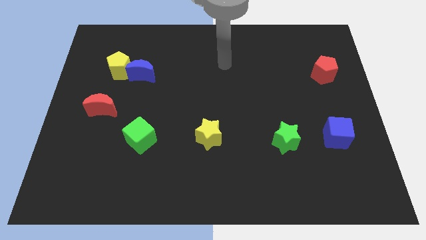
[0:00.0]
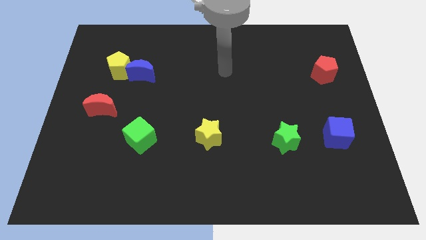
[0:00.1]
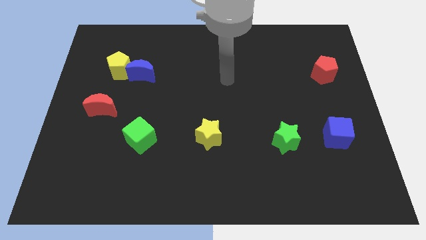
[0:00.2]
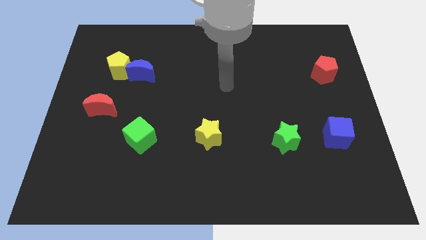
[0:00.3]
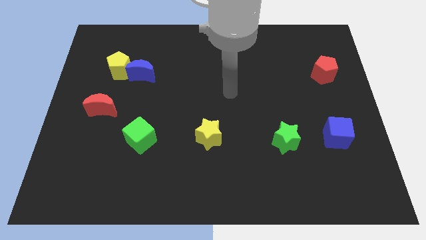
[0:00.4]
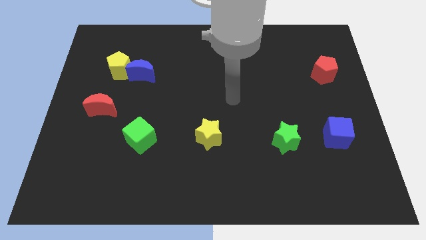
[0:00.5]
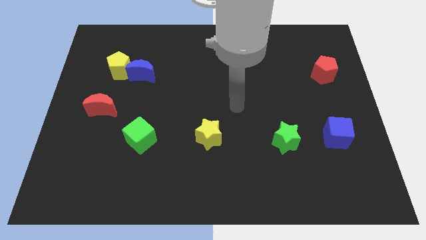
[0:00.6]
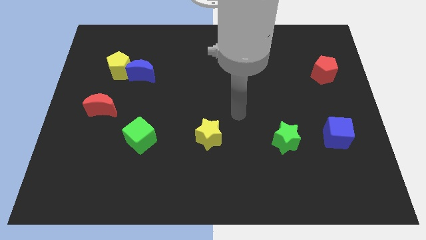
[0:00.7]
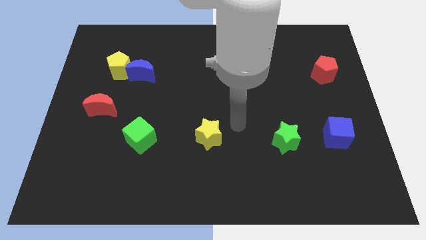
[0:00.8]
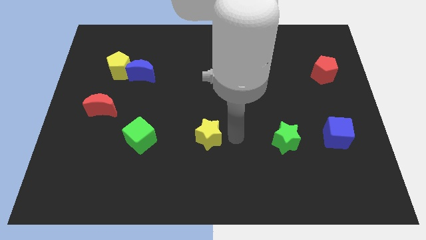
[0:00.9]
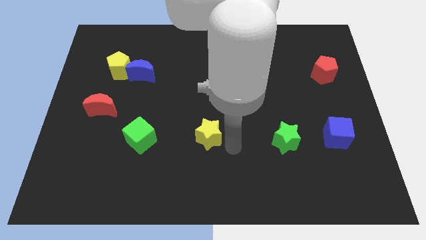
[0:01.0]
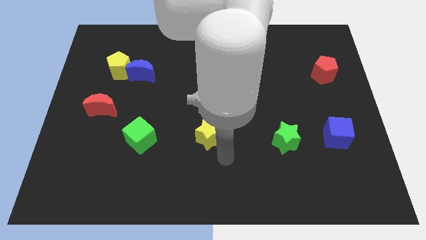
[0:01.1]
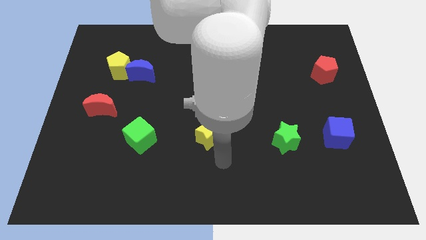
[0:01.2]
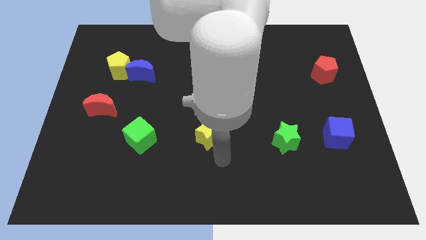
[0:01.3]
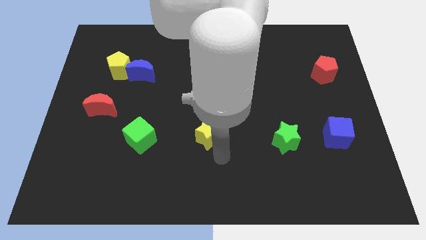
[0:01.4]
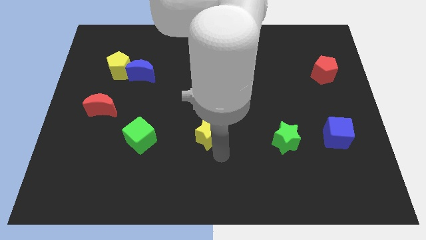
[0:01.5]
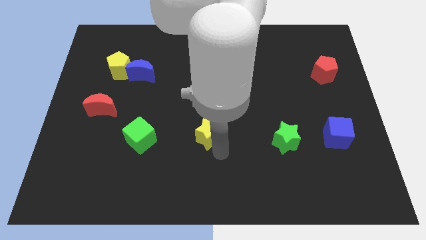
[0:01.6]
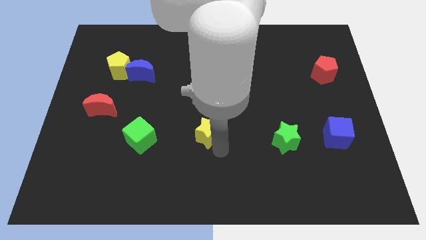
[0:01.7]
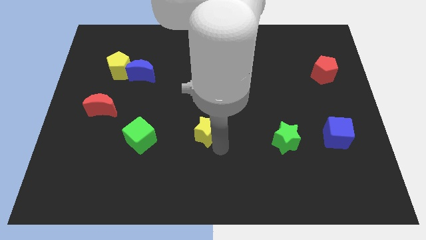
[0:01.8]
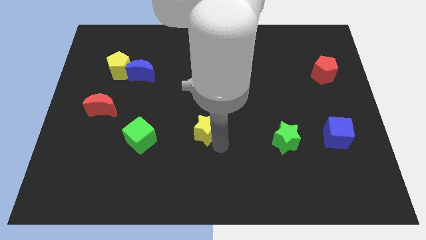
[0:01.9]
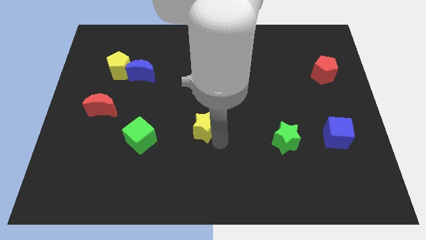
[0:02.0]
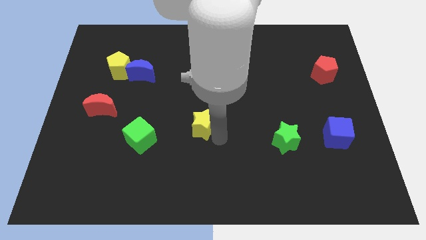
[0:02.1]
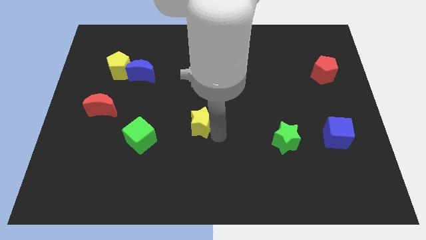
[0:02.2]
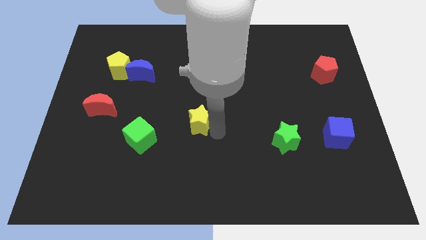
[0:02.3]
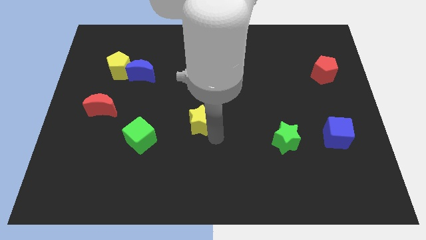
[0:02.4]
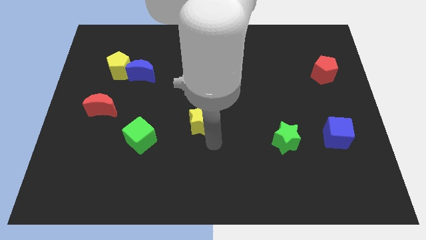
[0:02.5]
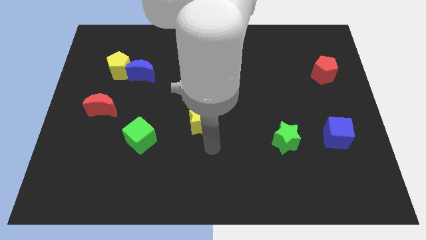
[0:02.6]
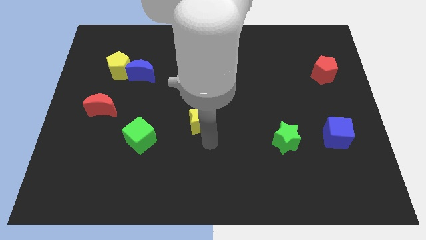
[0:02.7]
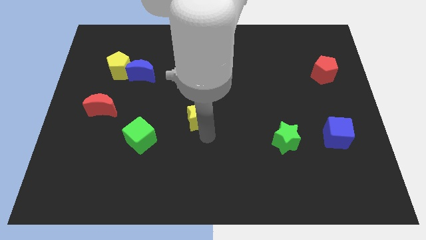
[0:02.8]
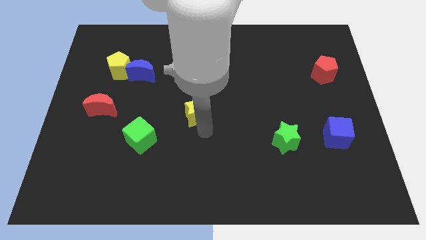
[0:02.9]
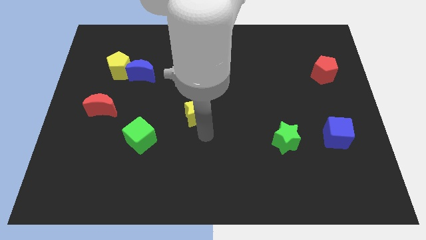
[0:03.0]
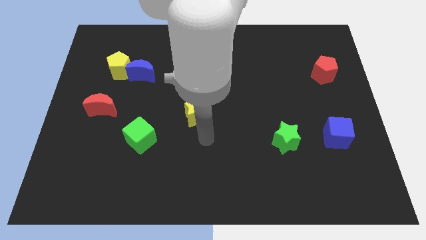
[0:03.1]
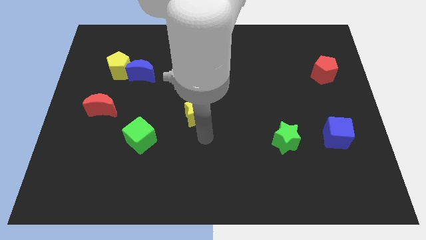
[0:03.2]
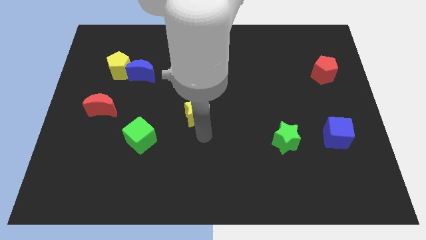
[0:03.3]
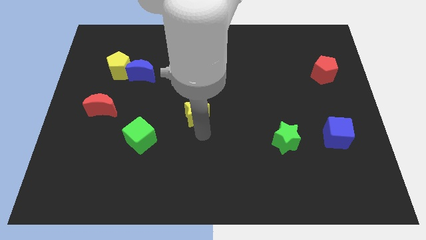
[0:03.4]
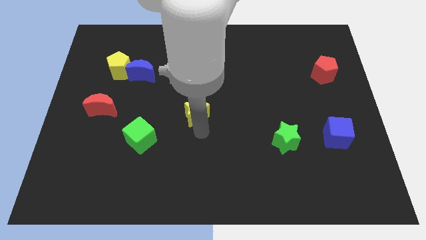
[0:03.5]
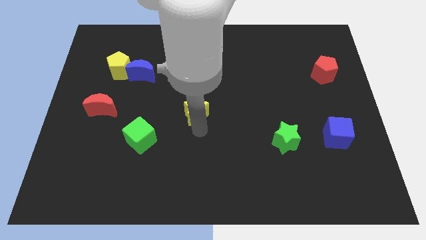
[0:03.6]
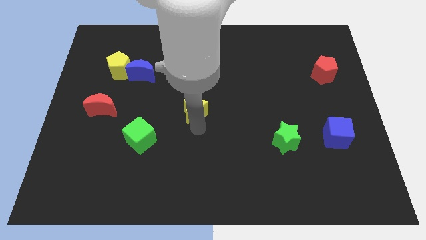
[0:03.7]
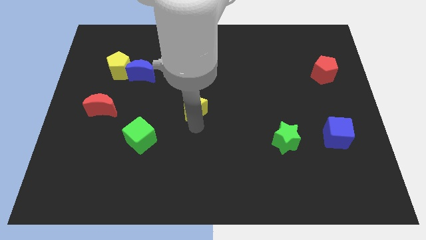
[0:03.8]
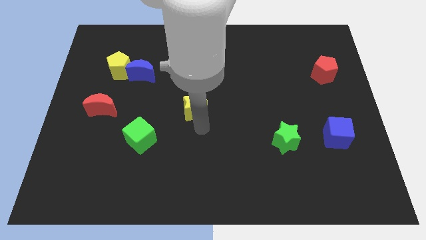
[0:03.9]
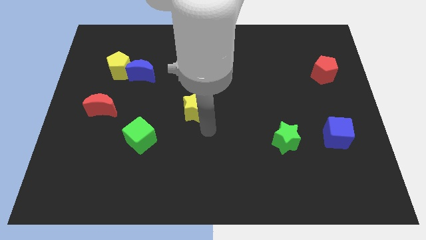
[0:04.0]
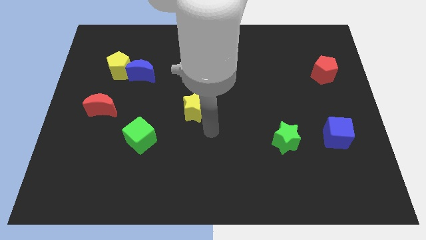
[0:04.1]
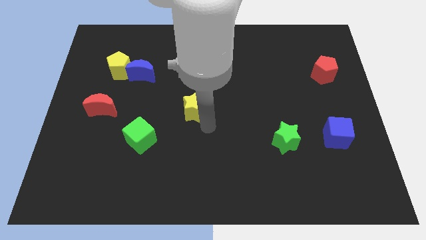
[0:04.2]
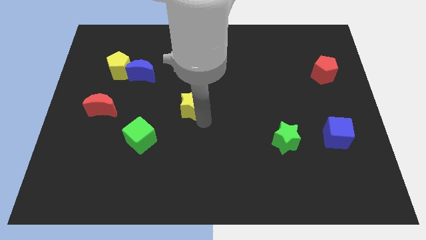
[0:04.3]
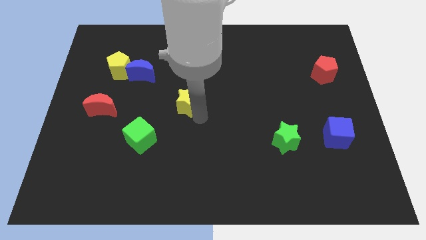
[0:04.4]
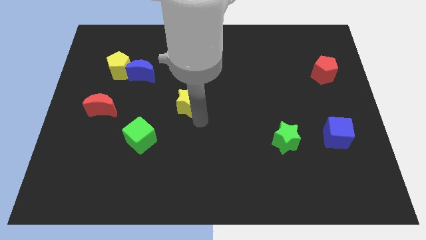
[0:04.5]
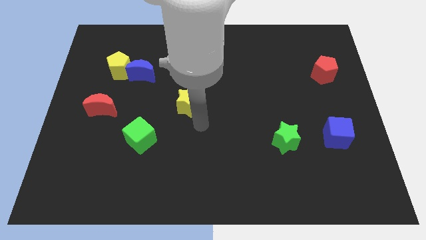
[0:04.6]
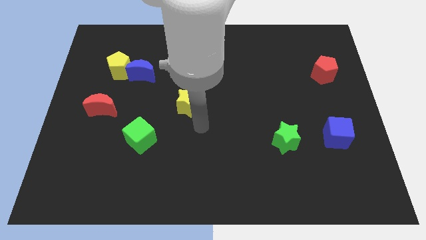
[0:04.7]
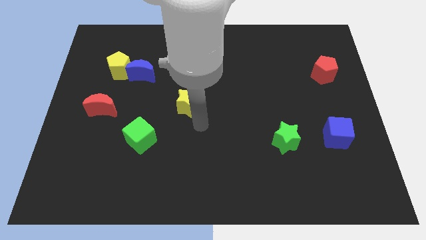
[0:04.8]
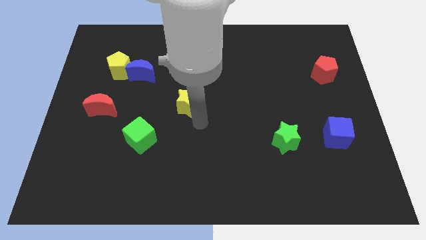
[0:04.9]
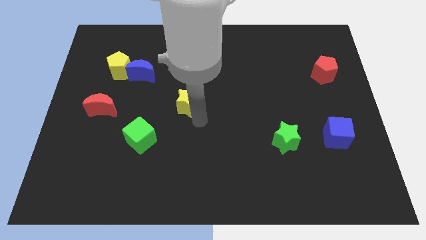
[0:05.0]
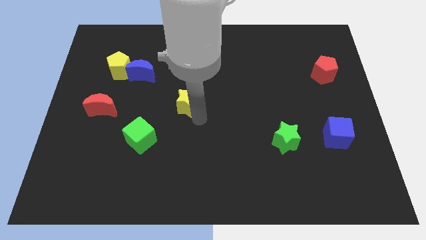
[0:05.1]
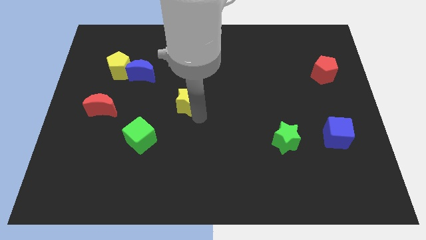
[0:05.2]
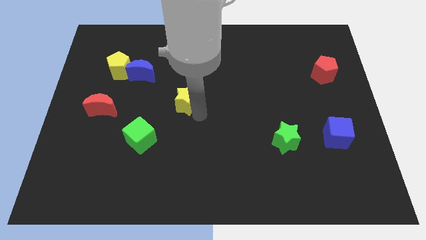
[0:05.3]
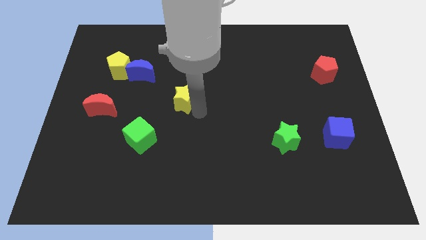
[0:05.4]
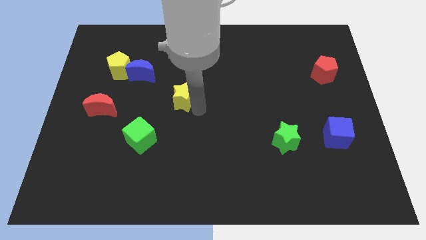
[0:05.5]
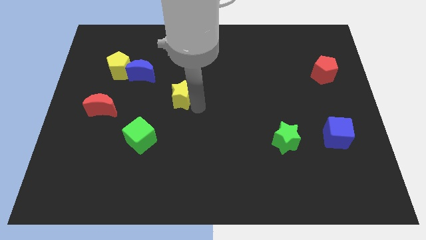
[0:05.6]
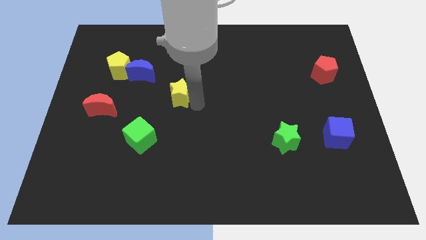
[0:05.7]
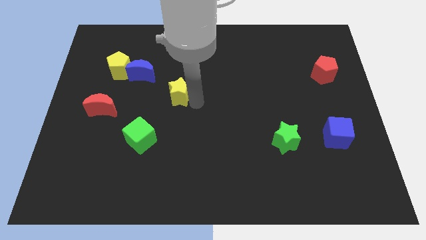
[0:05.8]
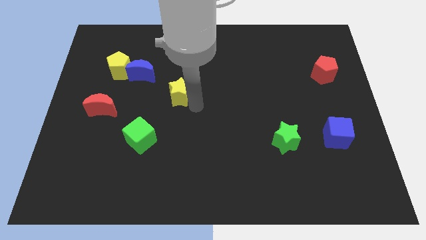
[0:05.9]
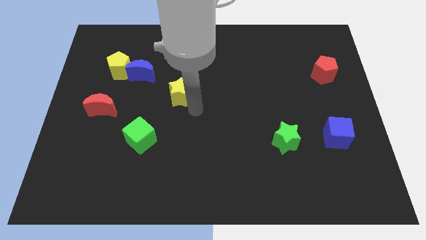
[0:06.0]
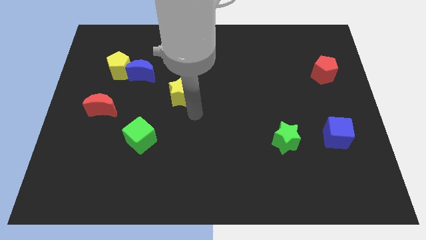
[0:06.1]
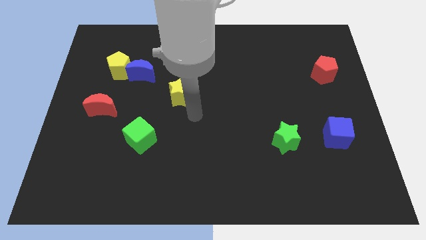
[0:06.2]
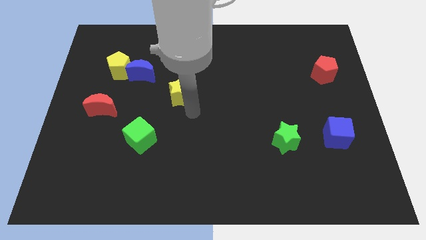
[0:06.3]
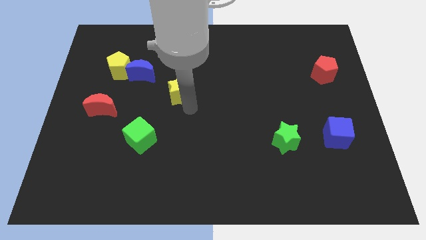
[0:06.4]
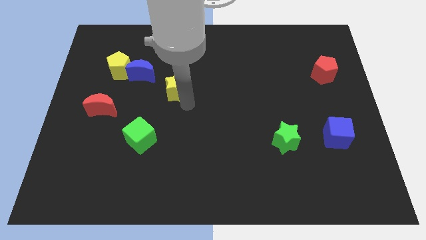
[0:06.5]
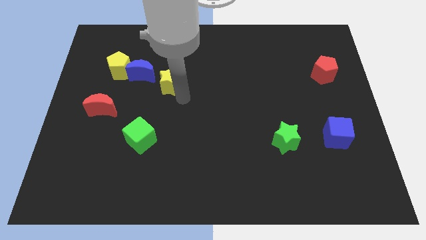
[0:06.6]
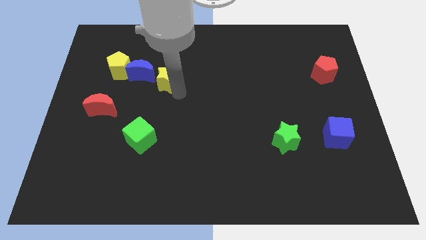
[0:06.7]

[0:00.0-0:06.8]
move the yellow star right of the yellow pentagon

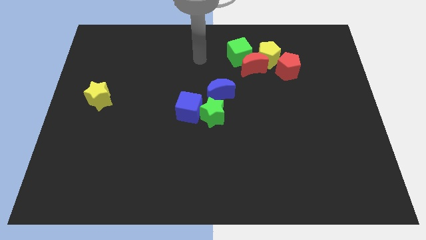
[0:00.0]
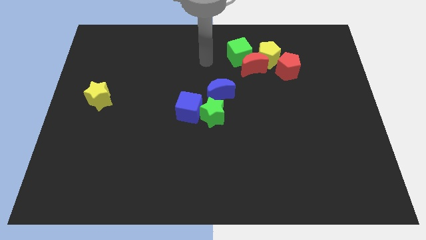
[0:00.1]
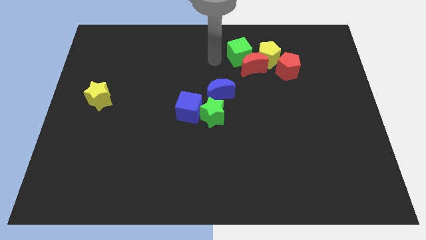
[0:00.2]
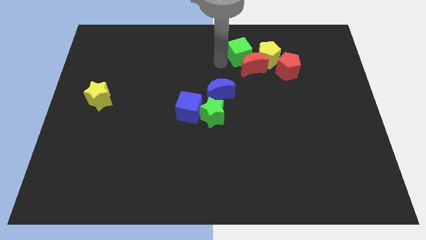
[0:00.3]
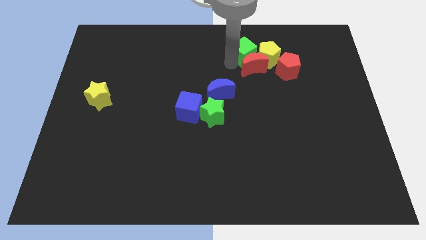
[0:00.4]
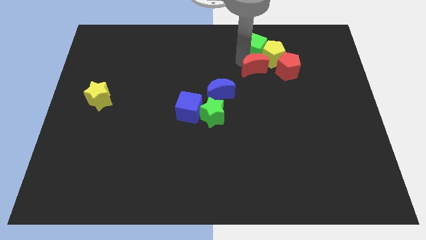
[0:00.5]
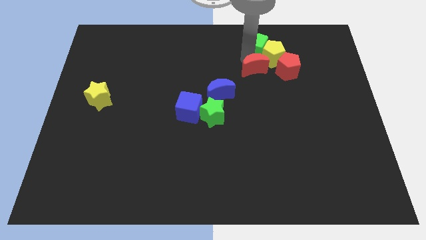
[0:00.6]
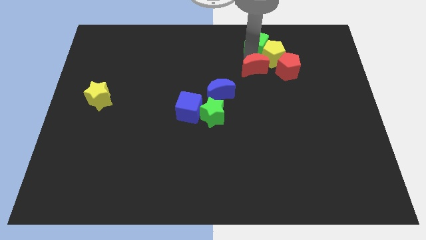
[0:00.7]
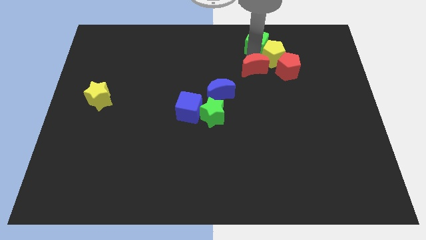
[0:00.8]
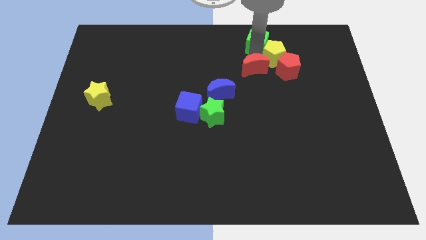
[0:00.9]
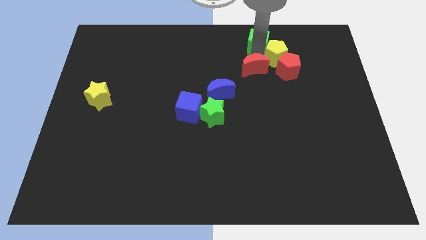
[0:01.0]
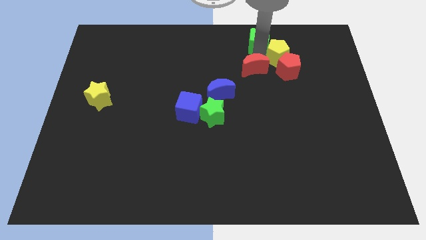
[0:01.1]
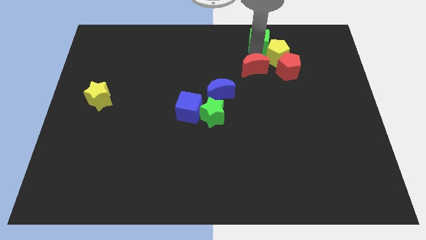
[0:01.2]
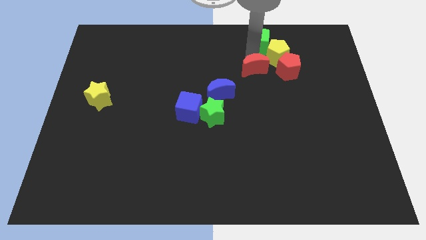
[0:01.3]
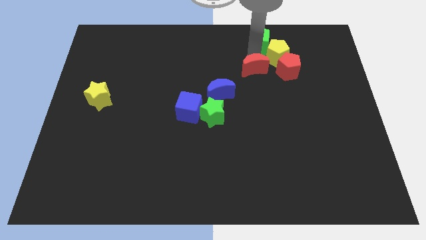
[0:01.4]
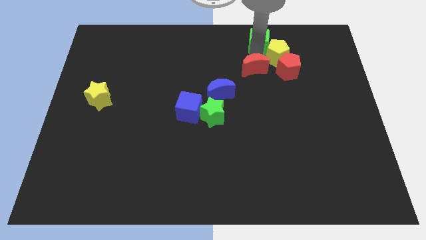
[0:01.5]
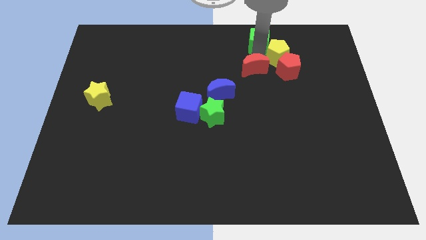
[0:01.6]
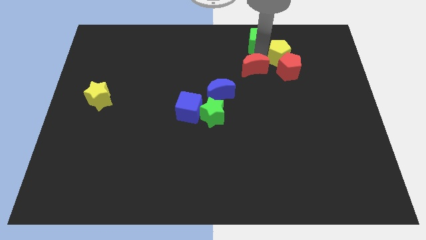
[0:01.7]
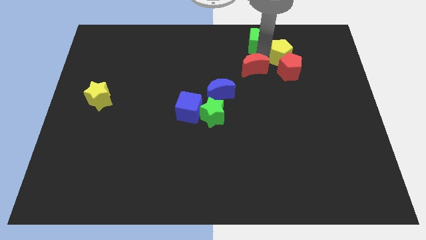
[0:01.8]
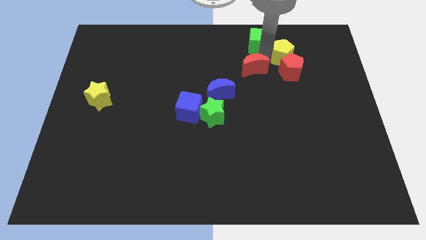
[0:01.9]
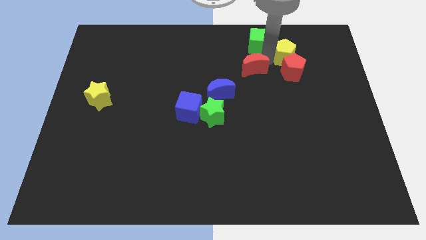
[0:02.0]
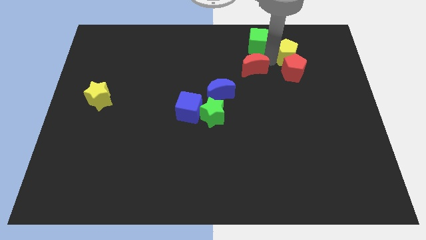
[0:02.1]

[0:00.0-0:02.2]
push the yellow pentagon diagonally up and to the right of the red pentagon
